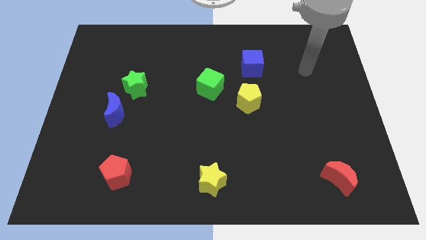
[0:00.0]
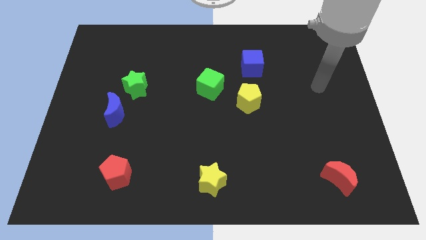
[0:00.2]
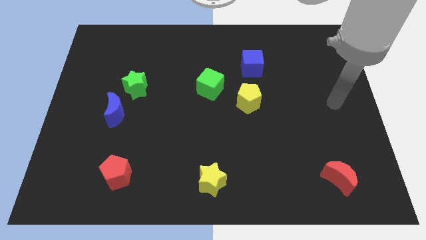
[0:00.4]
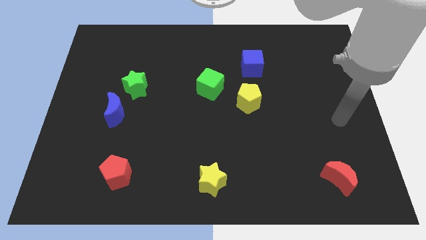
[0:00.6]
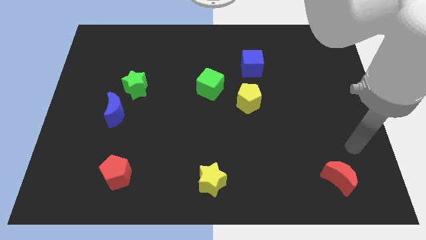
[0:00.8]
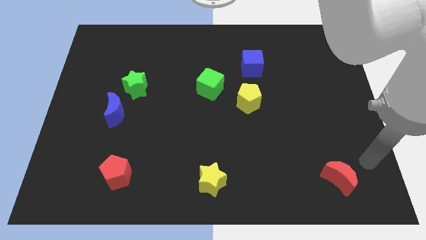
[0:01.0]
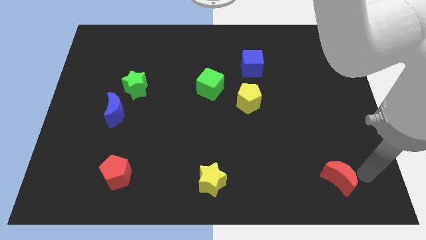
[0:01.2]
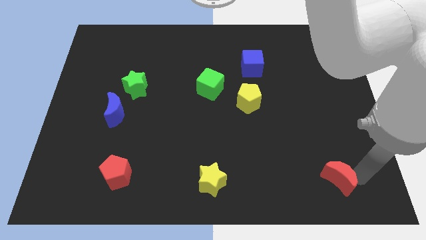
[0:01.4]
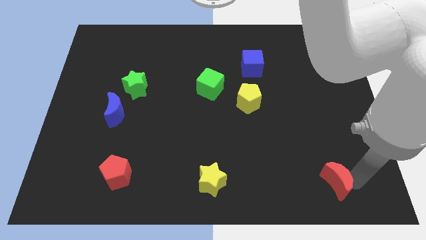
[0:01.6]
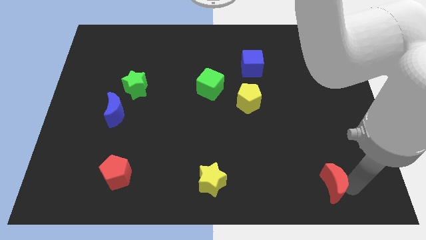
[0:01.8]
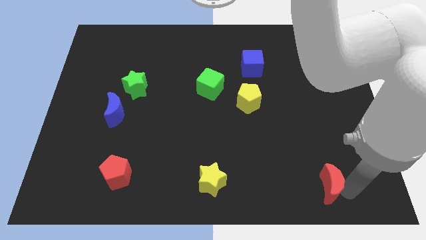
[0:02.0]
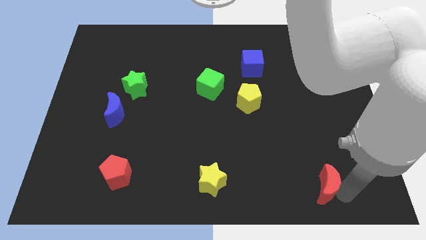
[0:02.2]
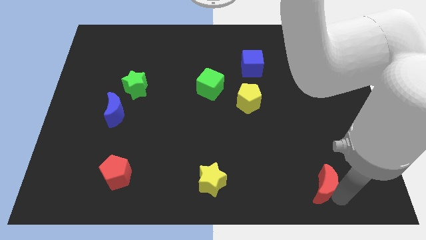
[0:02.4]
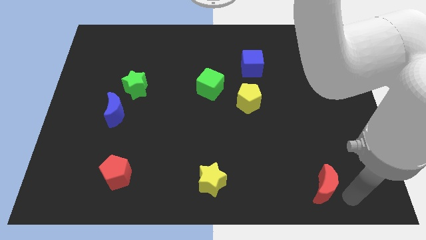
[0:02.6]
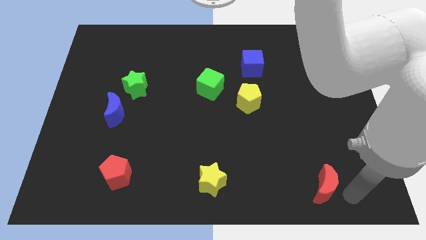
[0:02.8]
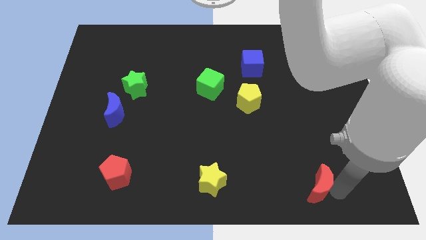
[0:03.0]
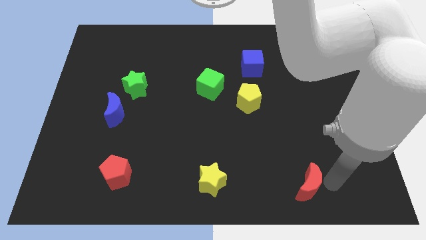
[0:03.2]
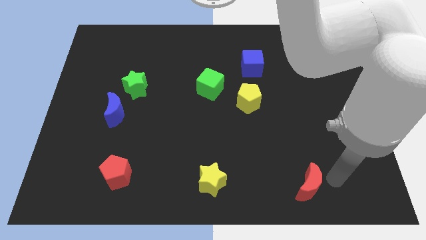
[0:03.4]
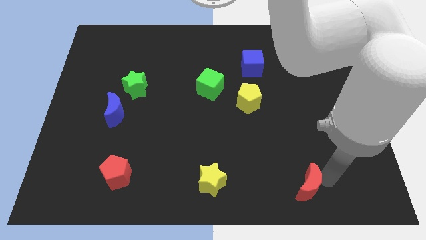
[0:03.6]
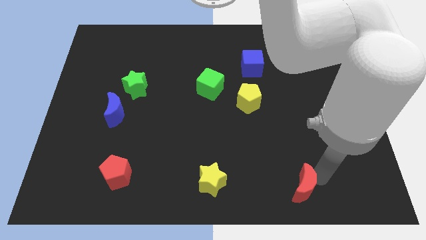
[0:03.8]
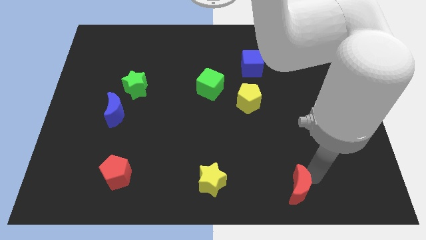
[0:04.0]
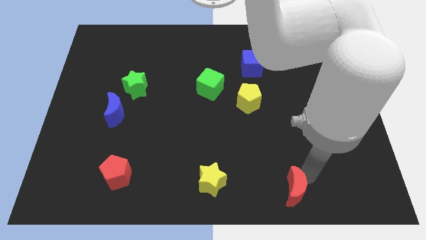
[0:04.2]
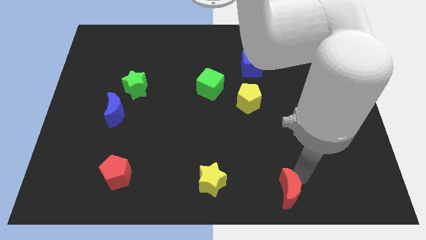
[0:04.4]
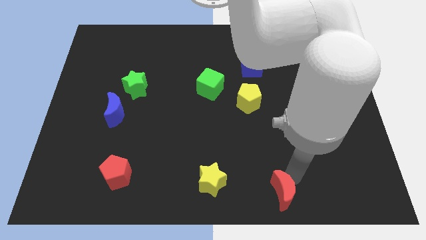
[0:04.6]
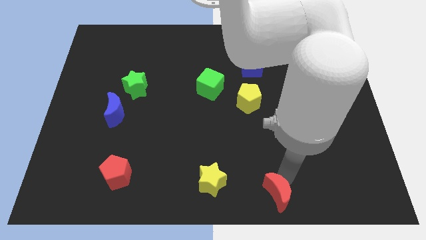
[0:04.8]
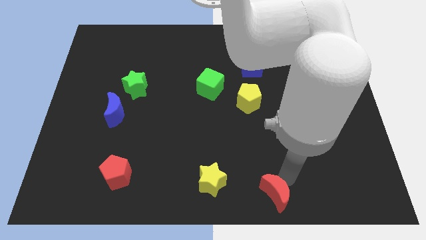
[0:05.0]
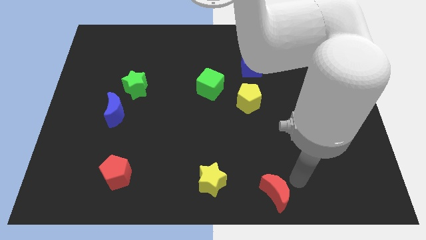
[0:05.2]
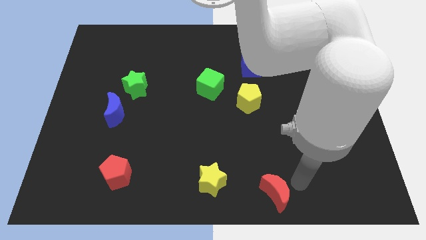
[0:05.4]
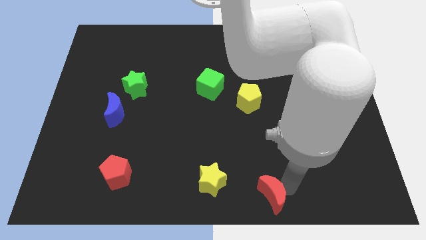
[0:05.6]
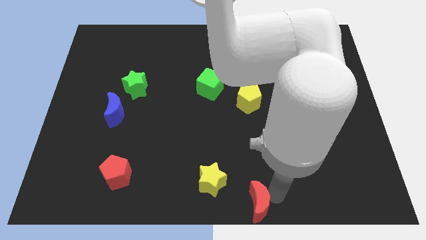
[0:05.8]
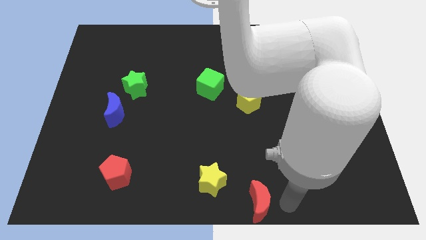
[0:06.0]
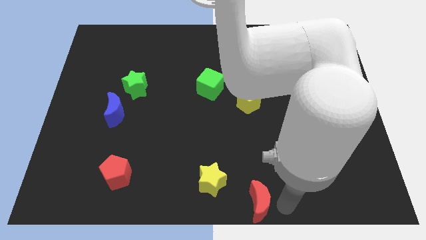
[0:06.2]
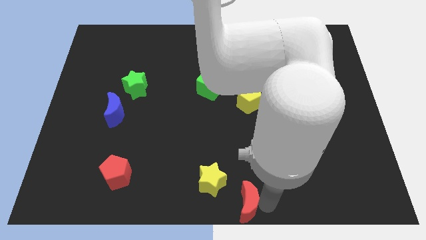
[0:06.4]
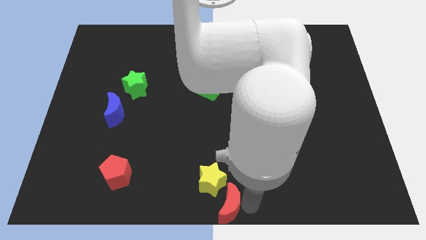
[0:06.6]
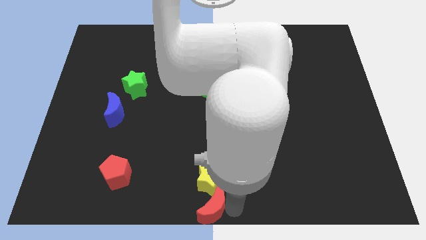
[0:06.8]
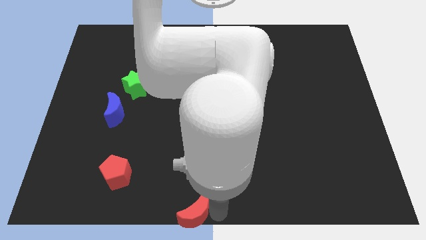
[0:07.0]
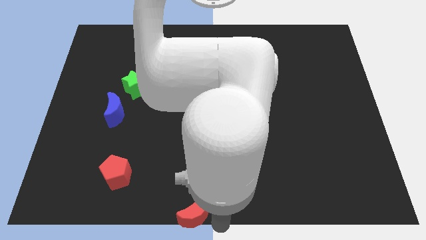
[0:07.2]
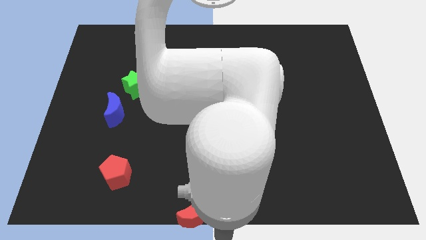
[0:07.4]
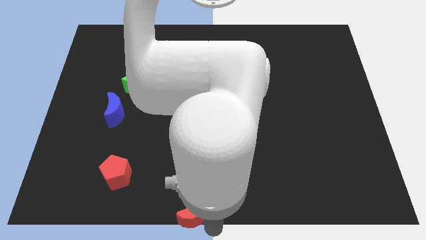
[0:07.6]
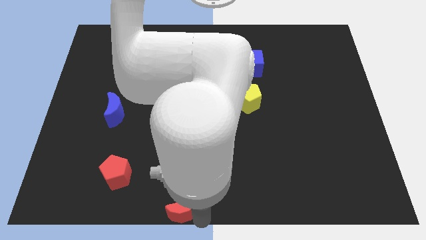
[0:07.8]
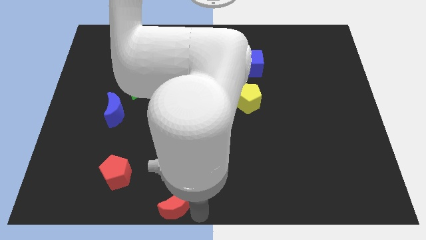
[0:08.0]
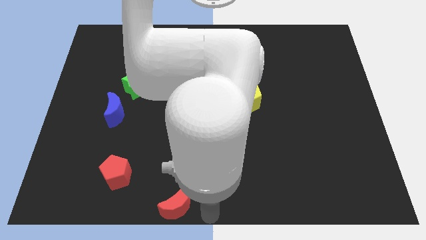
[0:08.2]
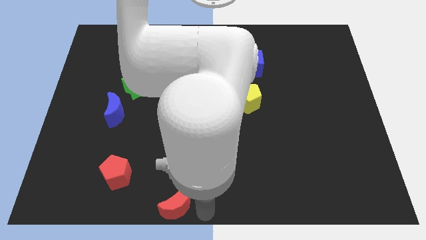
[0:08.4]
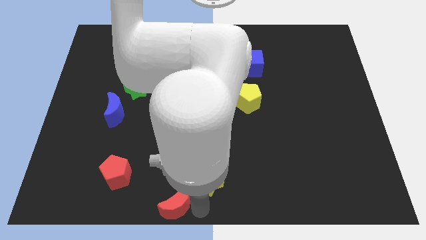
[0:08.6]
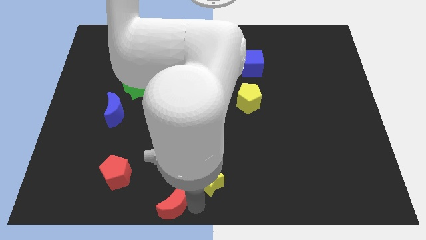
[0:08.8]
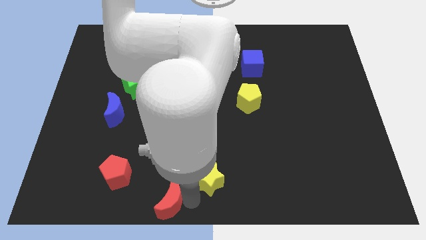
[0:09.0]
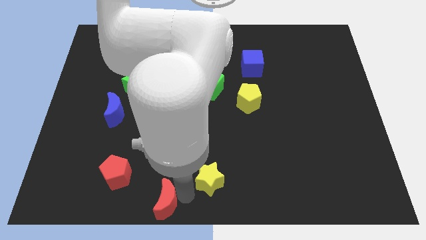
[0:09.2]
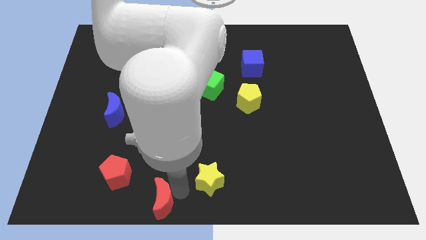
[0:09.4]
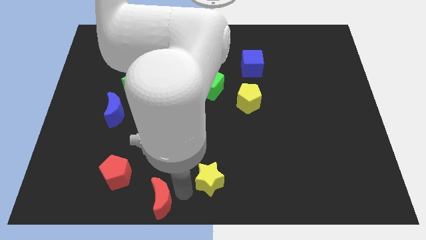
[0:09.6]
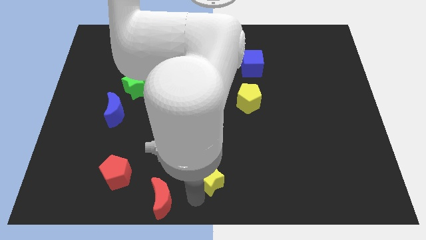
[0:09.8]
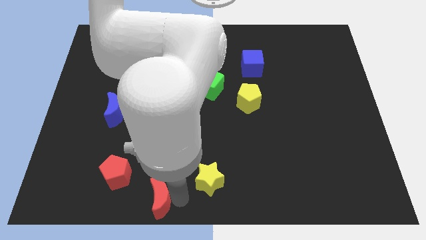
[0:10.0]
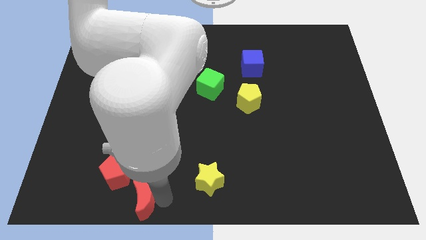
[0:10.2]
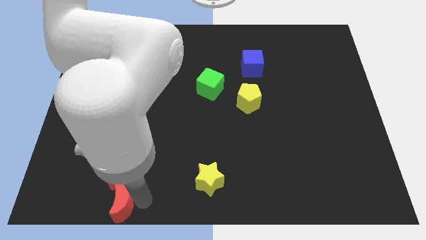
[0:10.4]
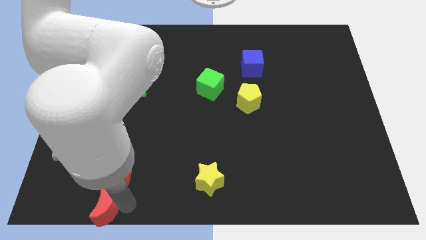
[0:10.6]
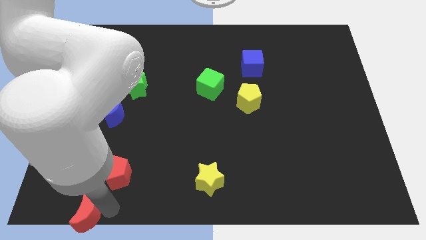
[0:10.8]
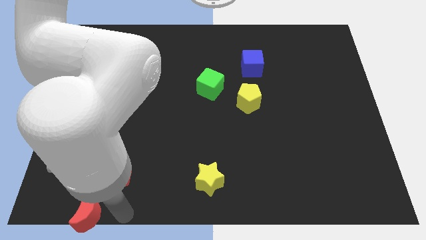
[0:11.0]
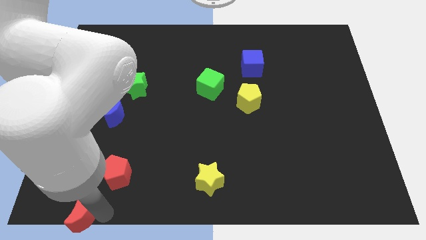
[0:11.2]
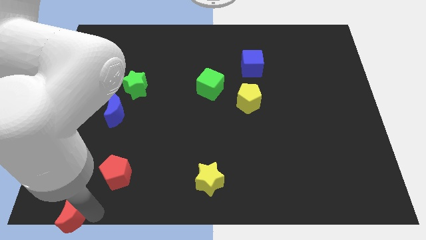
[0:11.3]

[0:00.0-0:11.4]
move the red moon to the bottom left corner

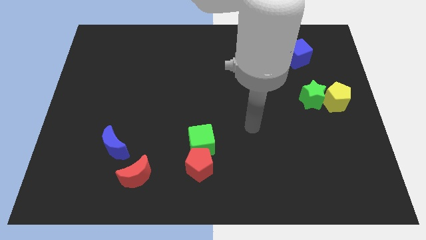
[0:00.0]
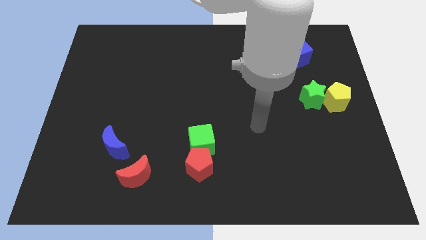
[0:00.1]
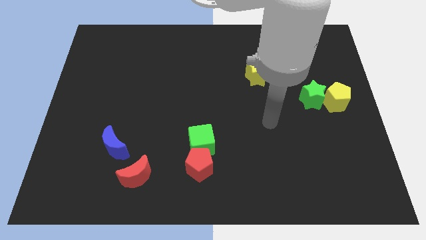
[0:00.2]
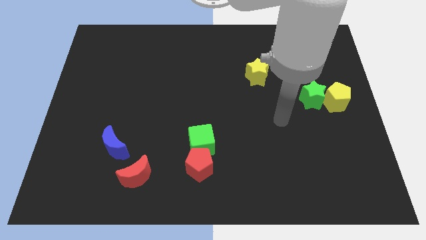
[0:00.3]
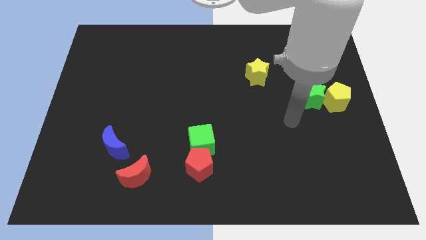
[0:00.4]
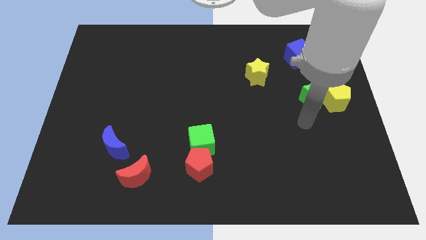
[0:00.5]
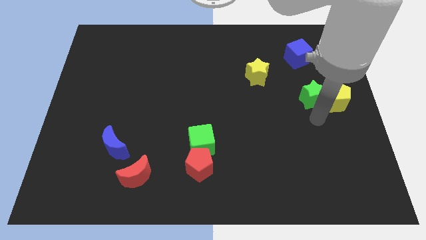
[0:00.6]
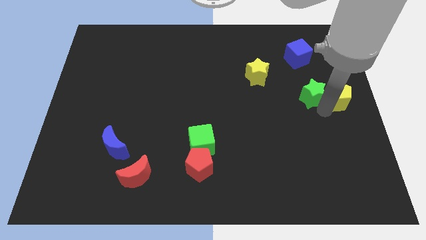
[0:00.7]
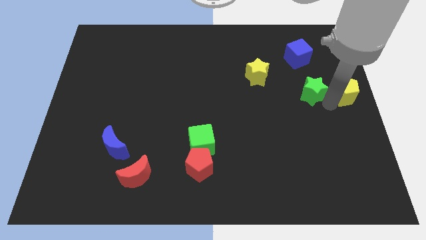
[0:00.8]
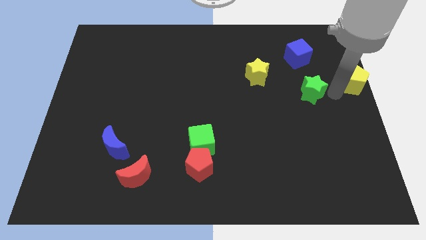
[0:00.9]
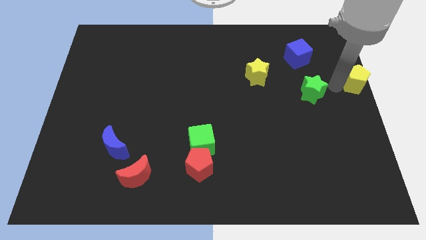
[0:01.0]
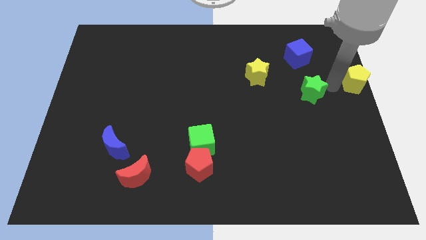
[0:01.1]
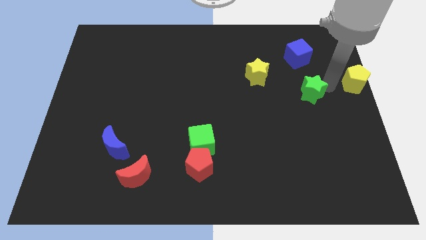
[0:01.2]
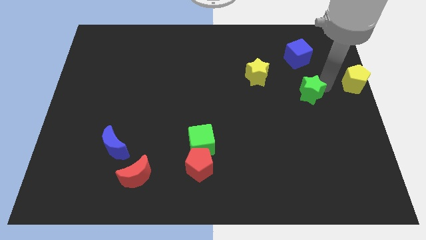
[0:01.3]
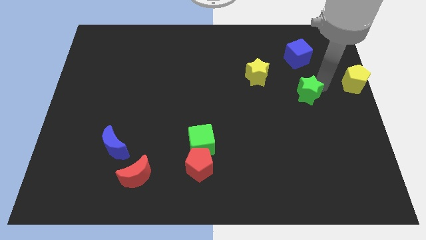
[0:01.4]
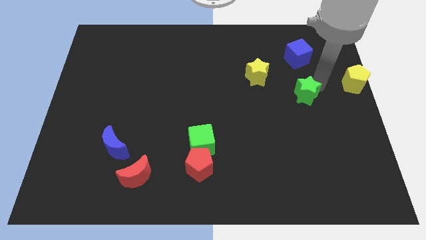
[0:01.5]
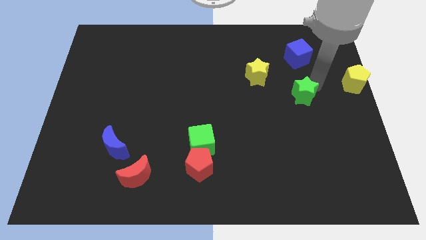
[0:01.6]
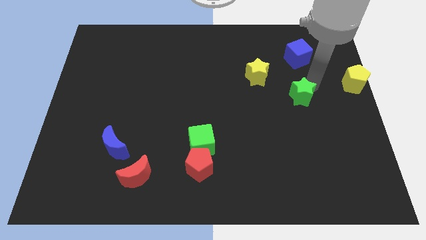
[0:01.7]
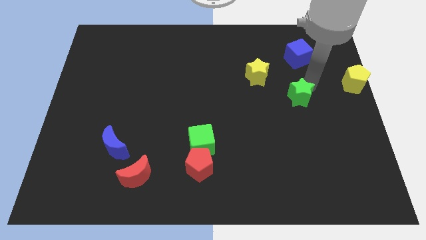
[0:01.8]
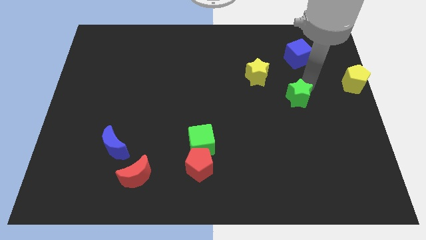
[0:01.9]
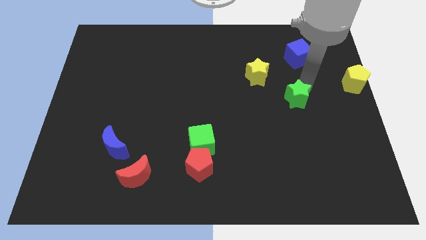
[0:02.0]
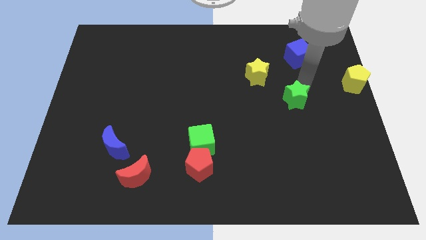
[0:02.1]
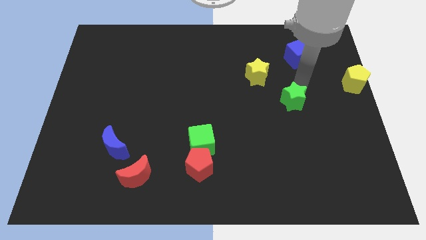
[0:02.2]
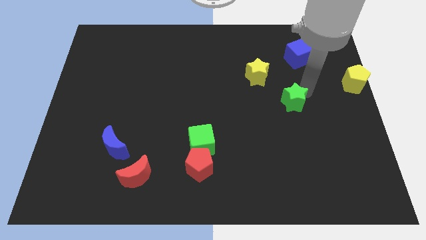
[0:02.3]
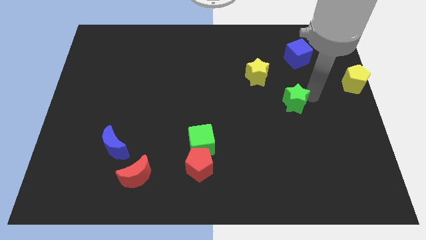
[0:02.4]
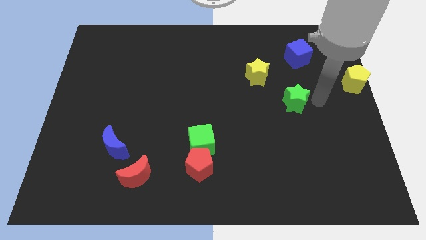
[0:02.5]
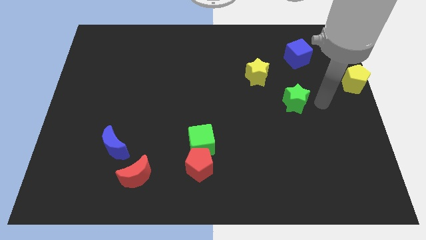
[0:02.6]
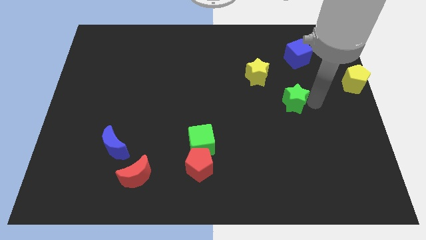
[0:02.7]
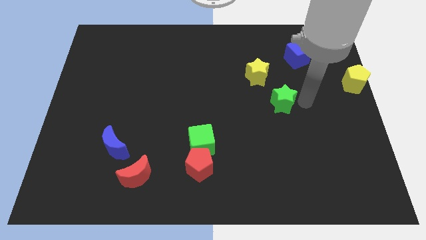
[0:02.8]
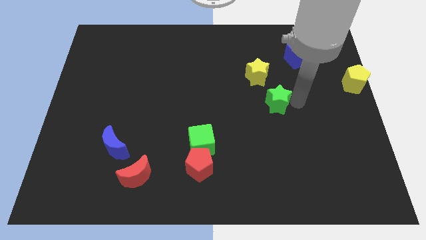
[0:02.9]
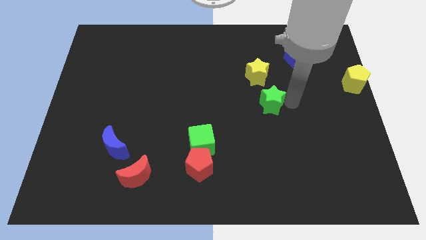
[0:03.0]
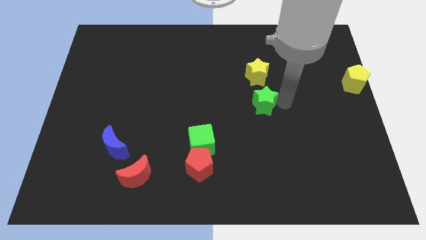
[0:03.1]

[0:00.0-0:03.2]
slide the green star to the center
